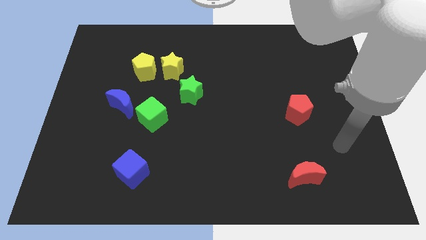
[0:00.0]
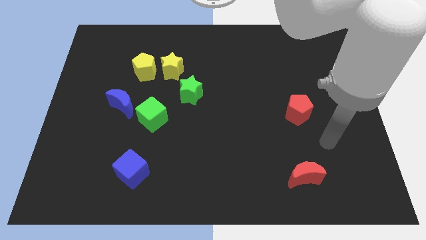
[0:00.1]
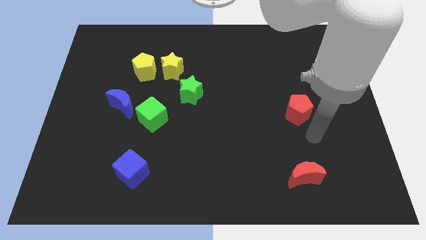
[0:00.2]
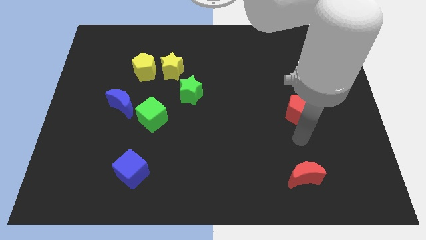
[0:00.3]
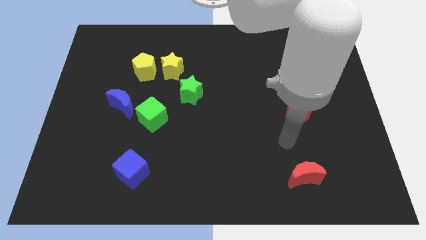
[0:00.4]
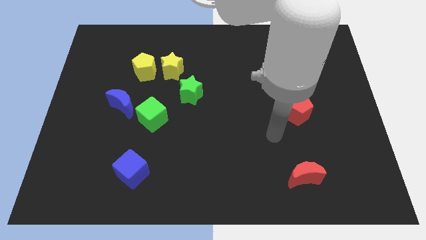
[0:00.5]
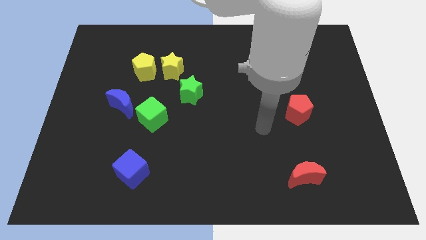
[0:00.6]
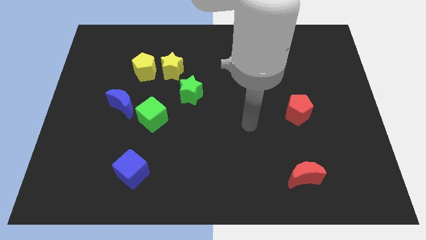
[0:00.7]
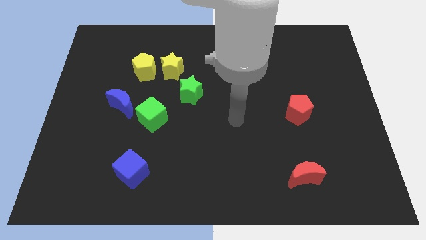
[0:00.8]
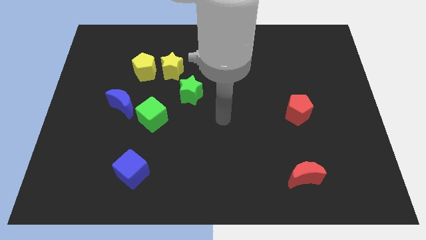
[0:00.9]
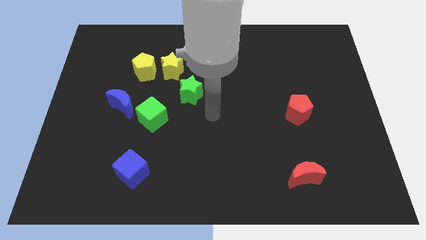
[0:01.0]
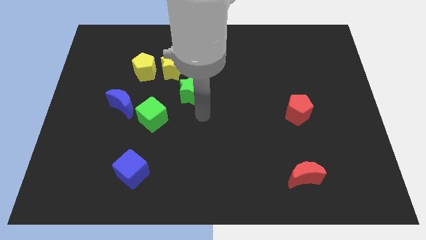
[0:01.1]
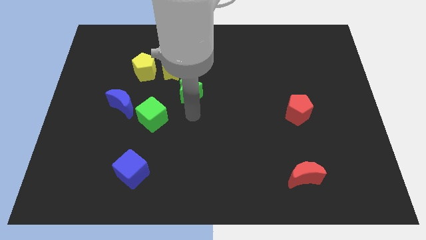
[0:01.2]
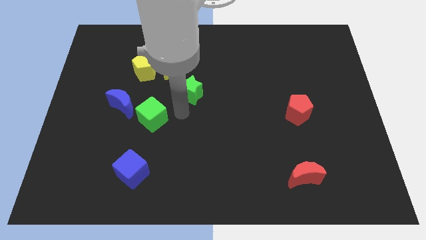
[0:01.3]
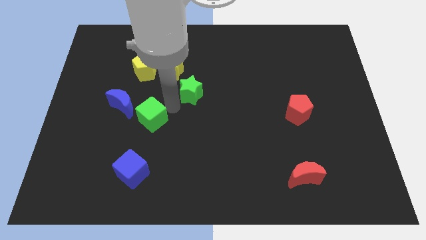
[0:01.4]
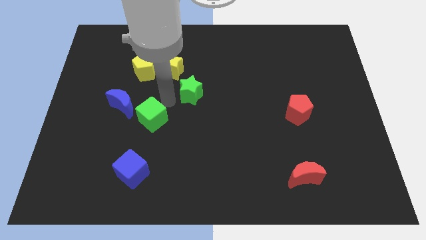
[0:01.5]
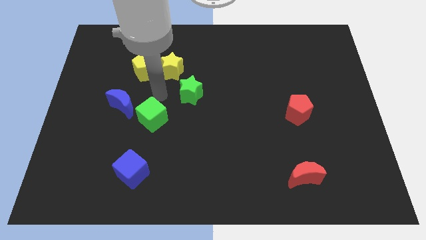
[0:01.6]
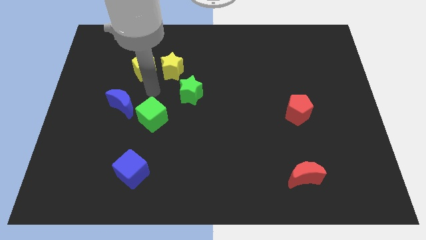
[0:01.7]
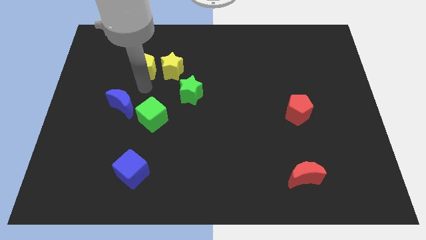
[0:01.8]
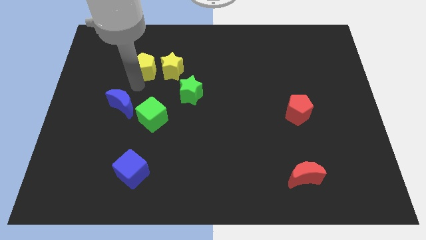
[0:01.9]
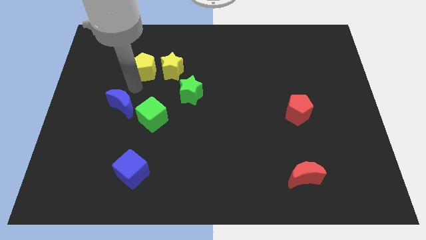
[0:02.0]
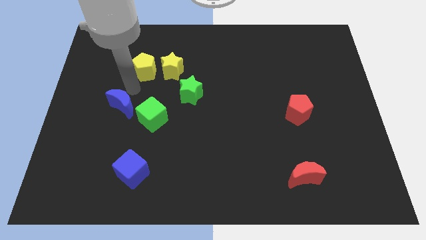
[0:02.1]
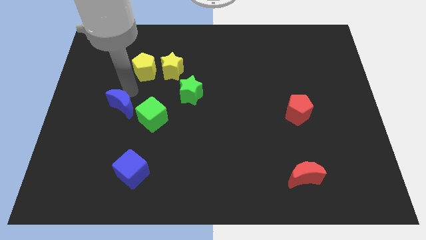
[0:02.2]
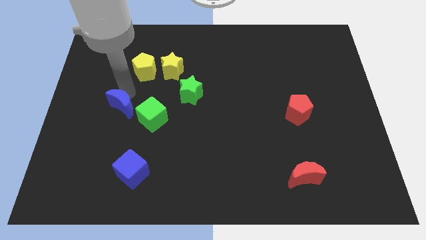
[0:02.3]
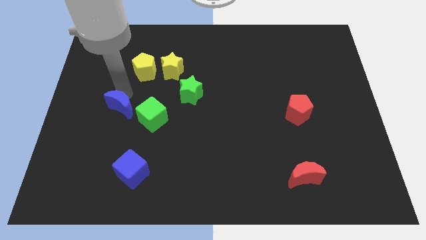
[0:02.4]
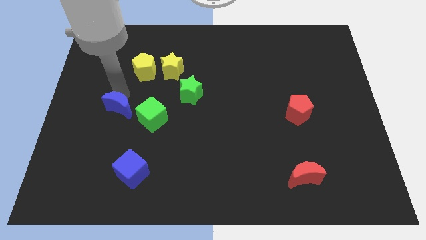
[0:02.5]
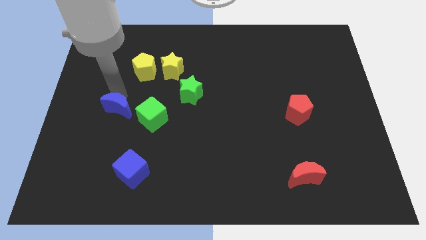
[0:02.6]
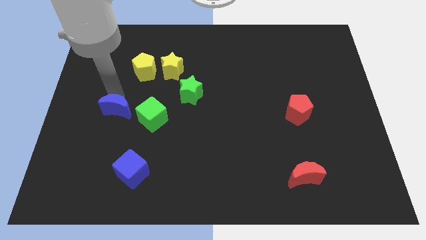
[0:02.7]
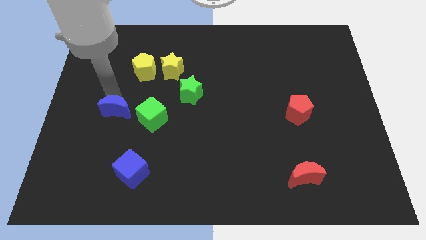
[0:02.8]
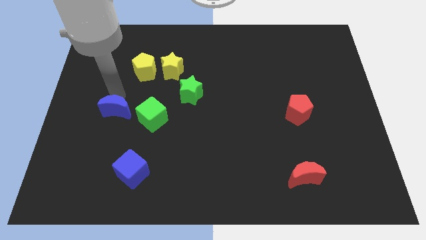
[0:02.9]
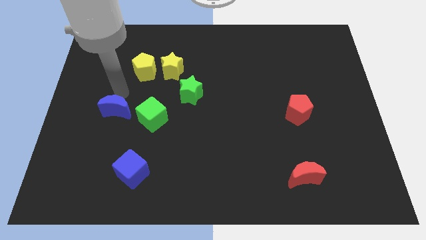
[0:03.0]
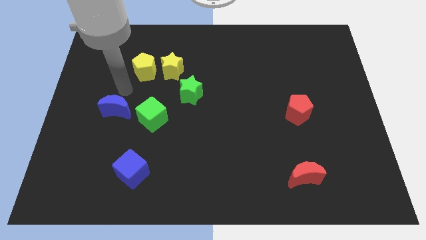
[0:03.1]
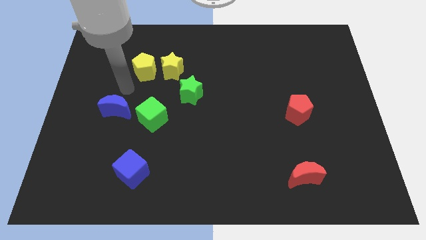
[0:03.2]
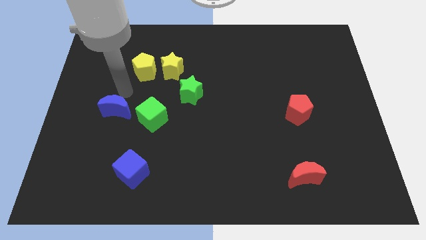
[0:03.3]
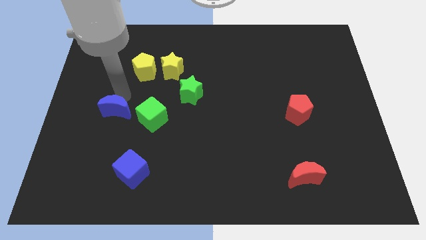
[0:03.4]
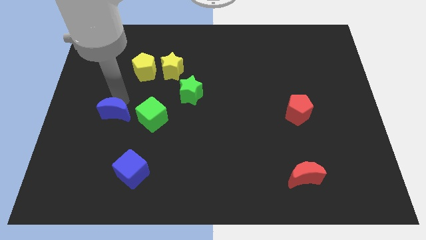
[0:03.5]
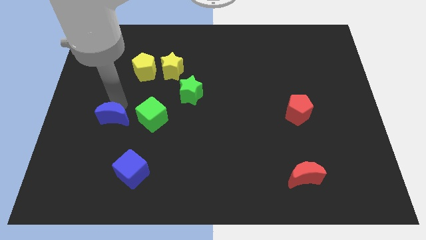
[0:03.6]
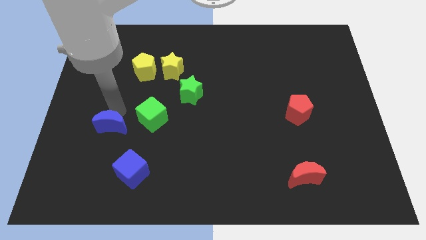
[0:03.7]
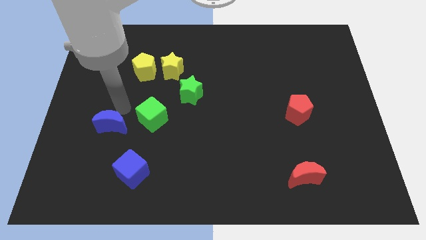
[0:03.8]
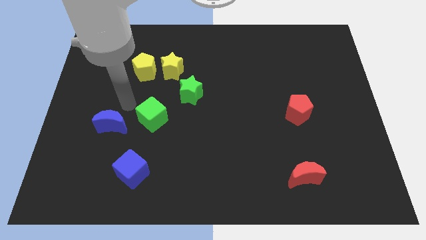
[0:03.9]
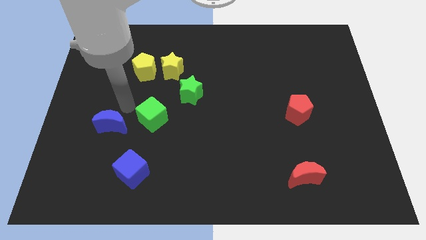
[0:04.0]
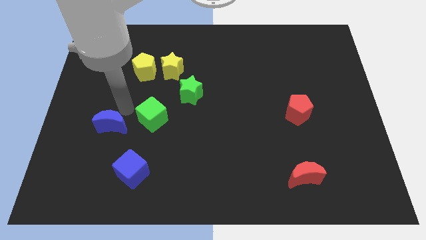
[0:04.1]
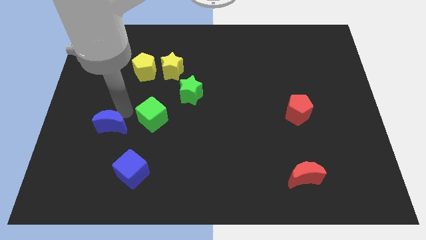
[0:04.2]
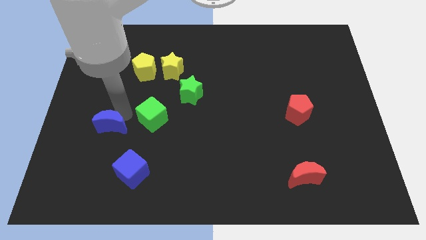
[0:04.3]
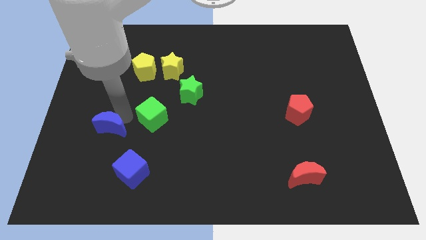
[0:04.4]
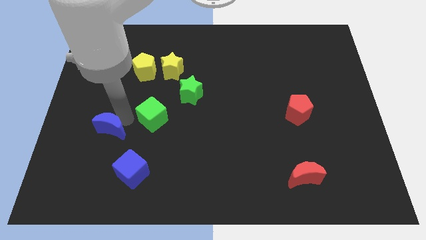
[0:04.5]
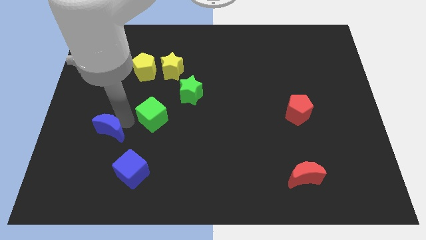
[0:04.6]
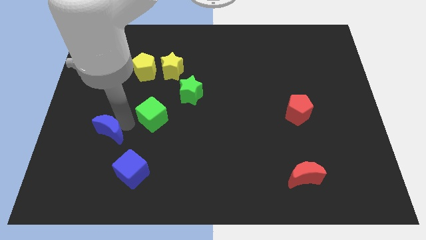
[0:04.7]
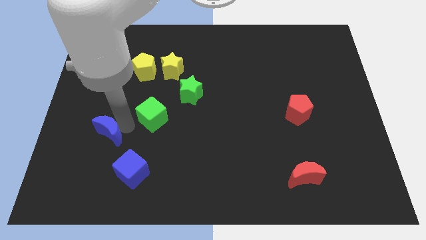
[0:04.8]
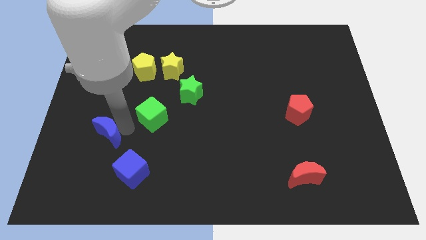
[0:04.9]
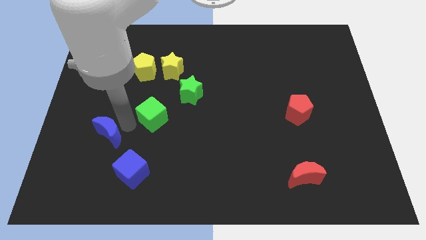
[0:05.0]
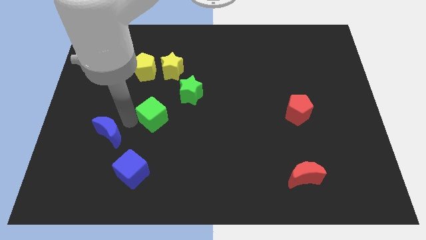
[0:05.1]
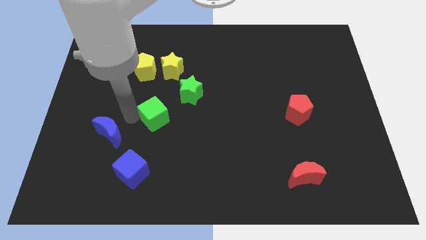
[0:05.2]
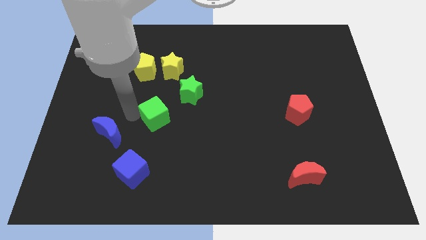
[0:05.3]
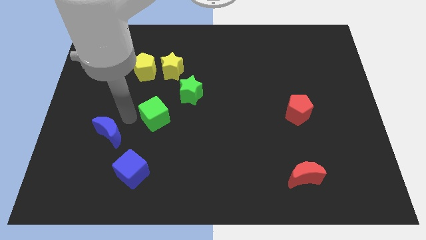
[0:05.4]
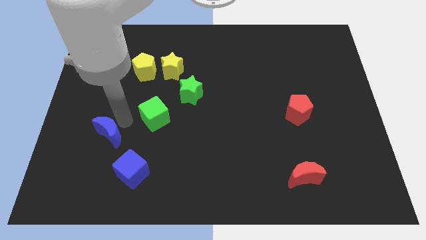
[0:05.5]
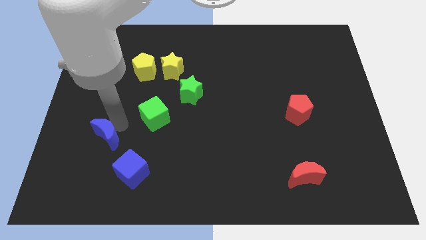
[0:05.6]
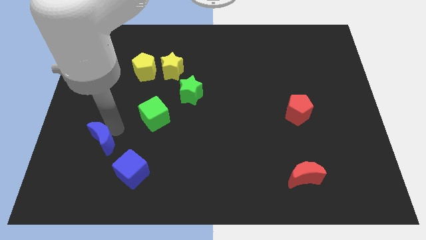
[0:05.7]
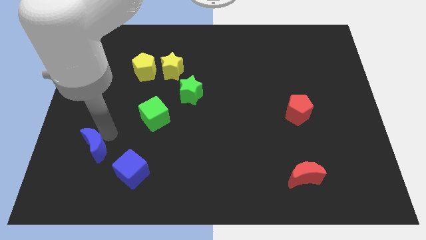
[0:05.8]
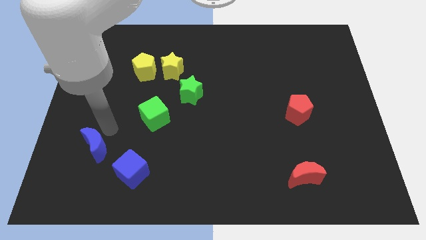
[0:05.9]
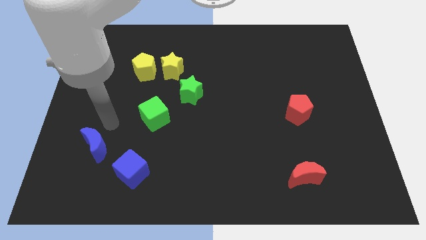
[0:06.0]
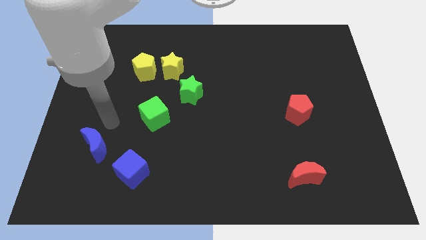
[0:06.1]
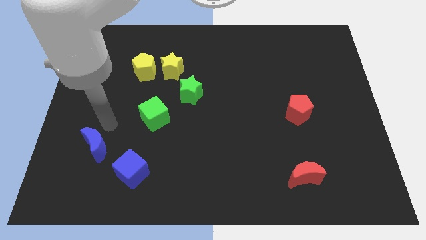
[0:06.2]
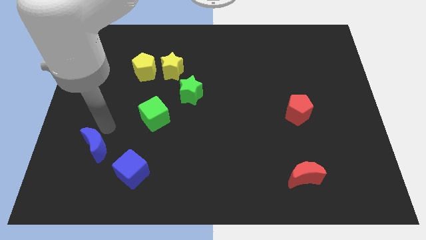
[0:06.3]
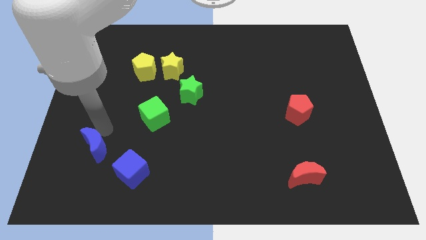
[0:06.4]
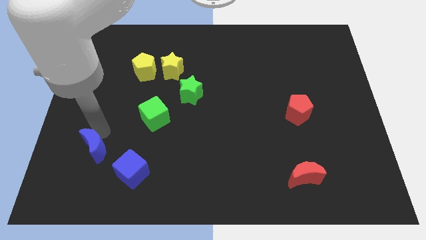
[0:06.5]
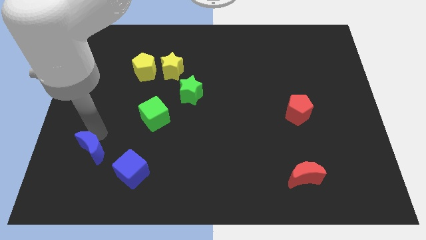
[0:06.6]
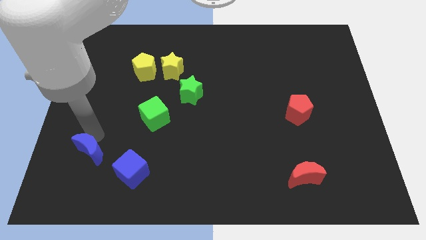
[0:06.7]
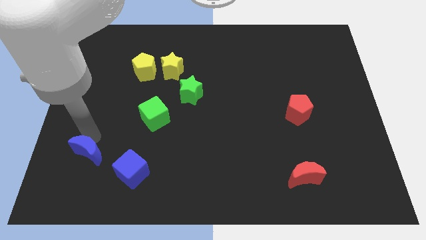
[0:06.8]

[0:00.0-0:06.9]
push the blue moon left of the blue cube

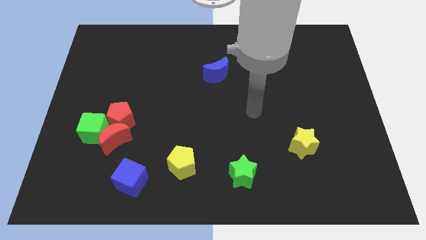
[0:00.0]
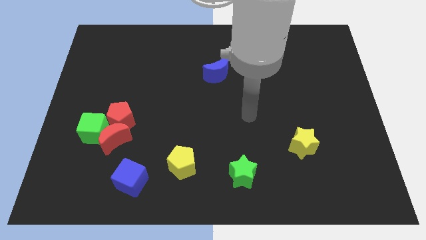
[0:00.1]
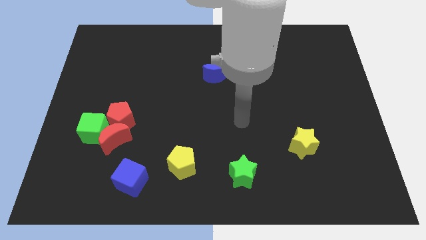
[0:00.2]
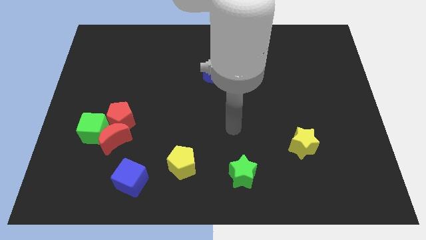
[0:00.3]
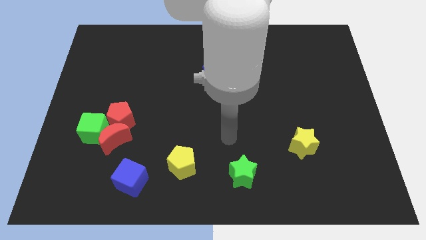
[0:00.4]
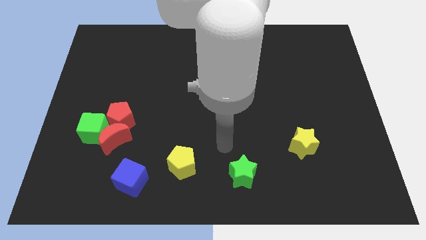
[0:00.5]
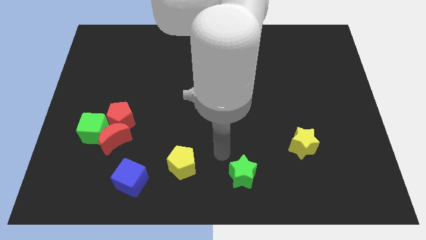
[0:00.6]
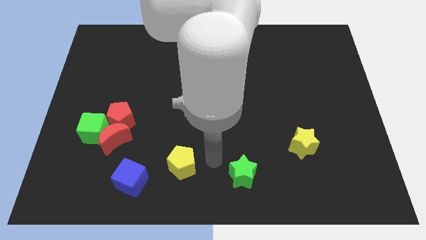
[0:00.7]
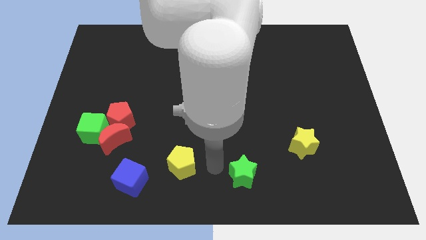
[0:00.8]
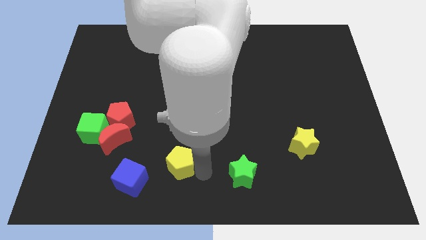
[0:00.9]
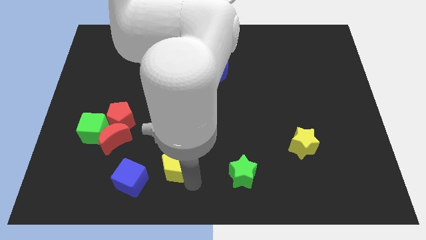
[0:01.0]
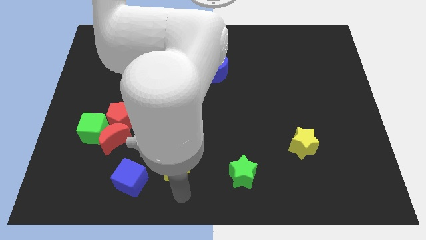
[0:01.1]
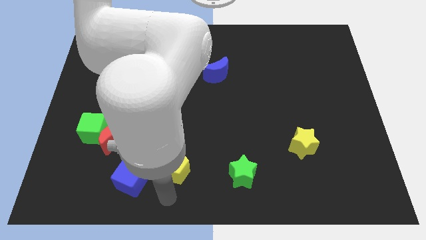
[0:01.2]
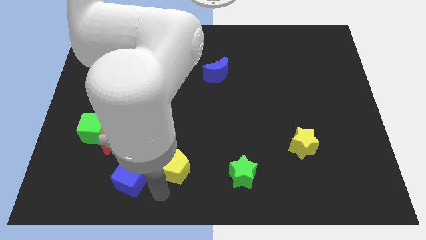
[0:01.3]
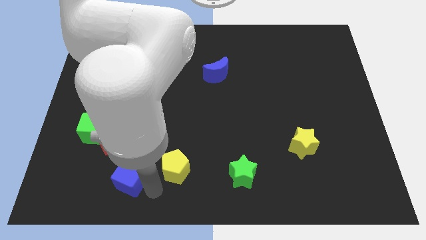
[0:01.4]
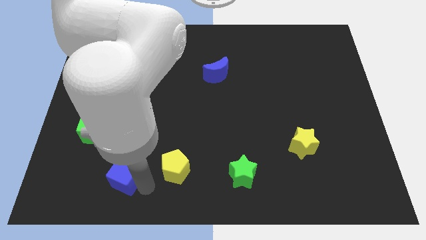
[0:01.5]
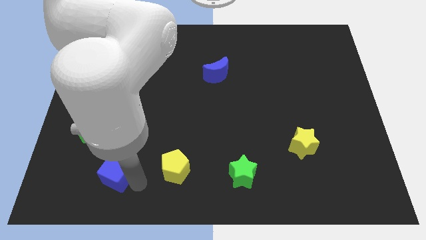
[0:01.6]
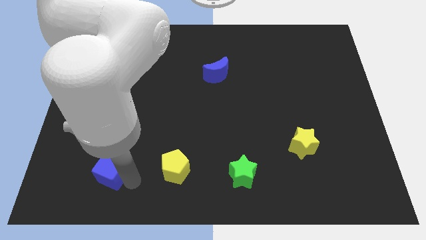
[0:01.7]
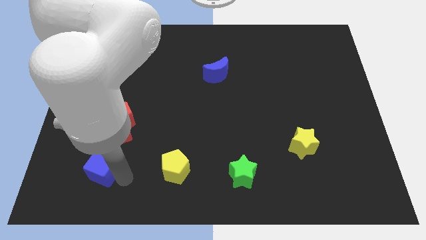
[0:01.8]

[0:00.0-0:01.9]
push the blue cube diagonally down and to the left of the red moon
